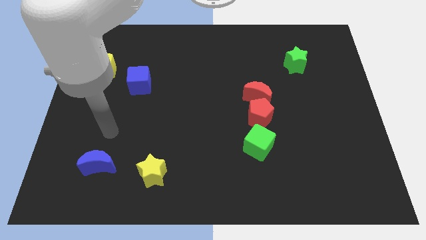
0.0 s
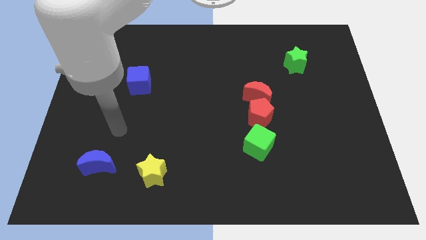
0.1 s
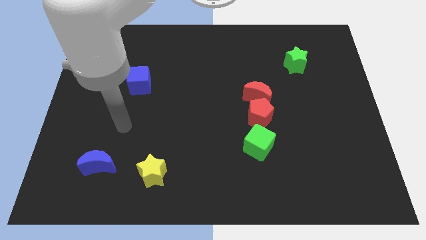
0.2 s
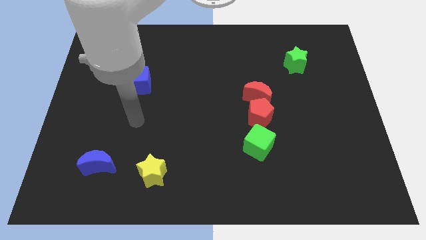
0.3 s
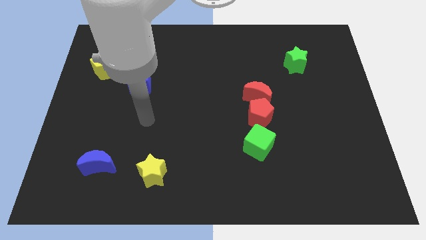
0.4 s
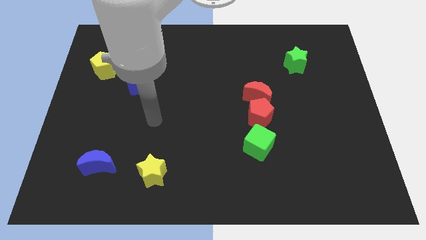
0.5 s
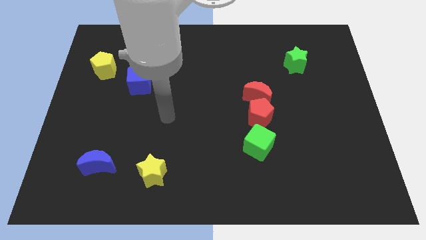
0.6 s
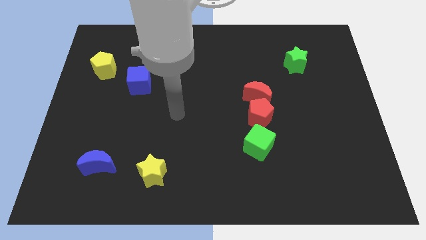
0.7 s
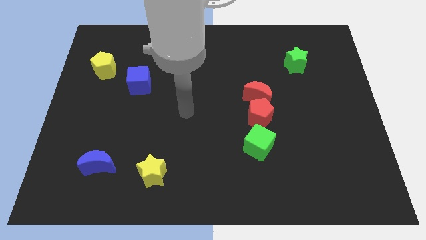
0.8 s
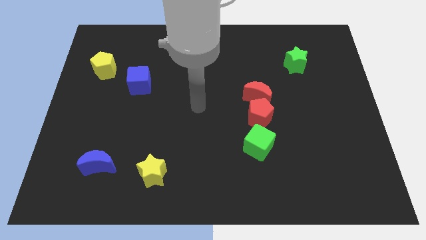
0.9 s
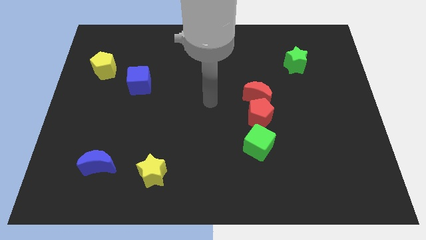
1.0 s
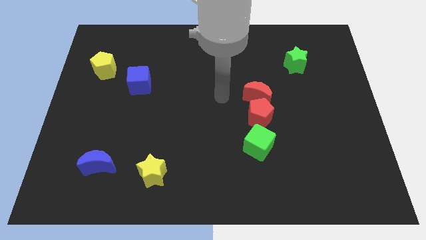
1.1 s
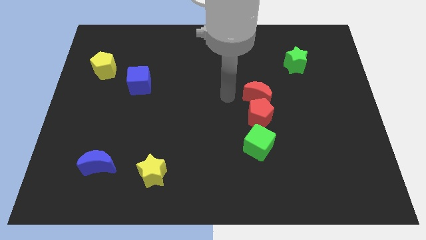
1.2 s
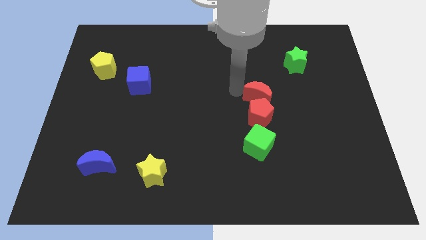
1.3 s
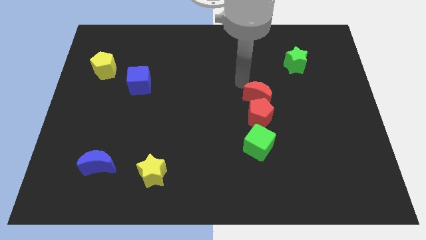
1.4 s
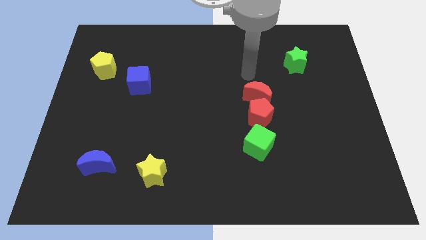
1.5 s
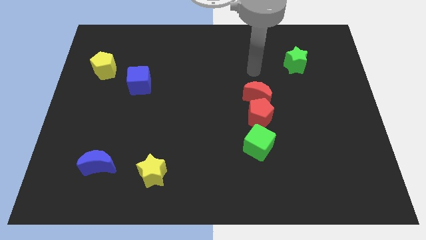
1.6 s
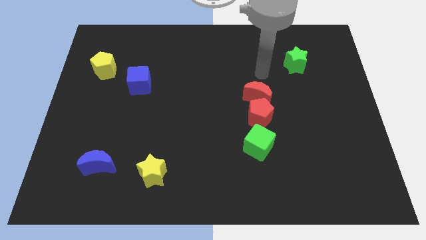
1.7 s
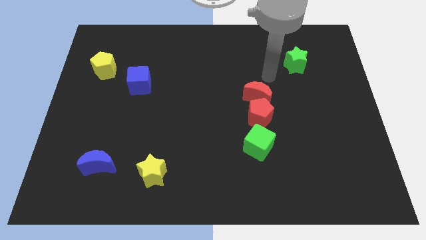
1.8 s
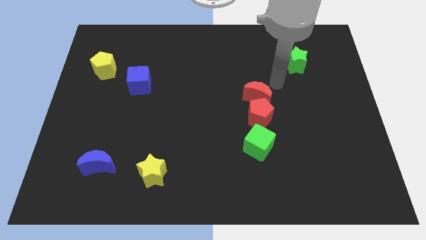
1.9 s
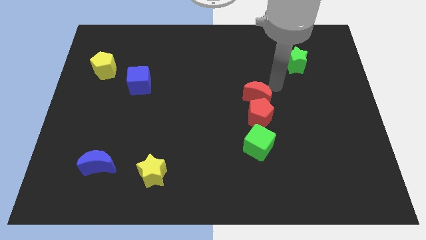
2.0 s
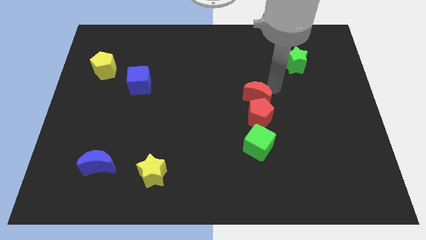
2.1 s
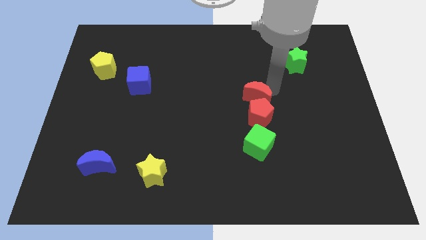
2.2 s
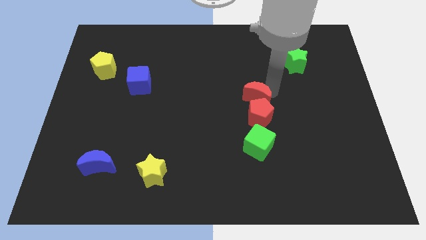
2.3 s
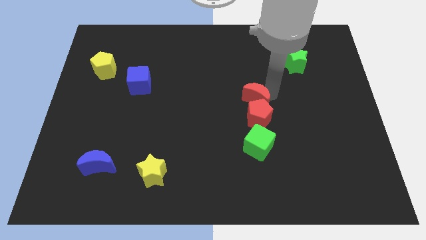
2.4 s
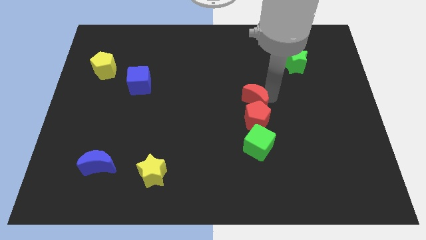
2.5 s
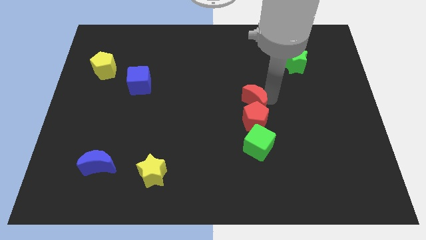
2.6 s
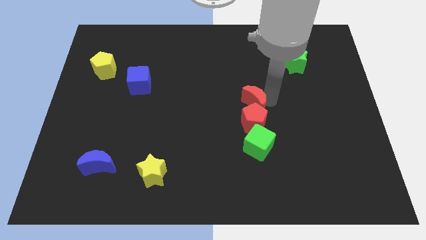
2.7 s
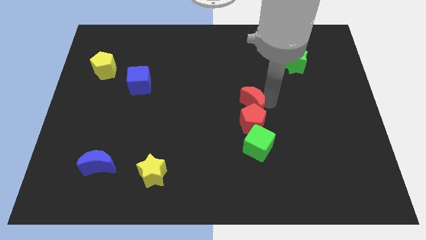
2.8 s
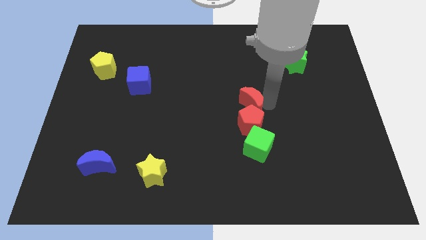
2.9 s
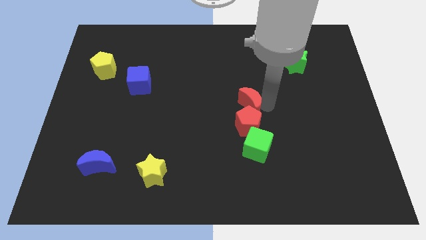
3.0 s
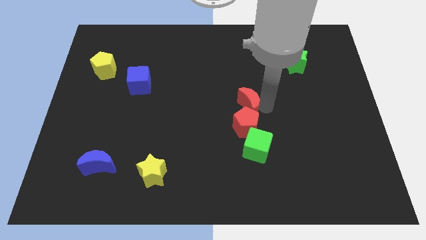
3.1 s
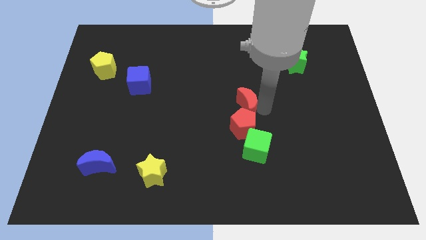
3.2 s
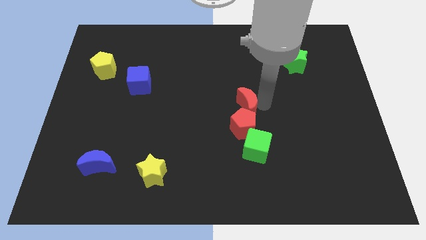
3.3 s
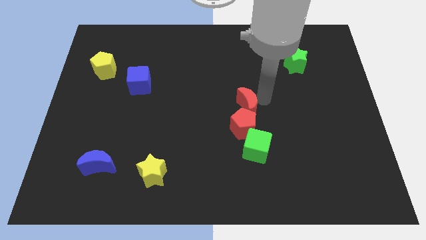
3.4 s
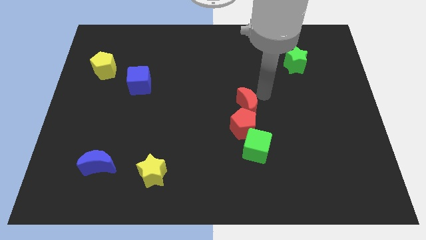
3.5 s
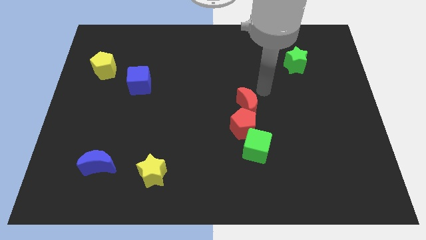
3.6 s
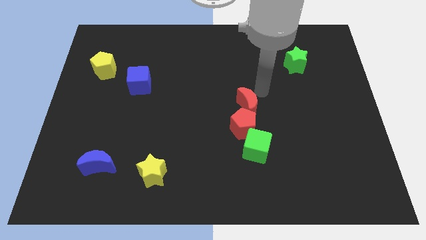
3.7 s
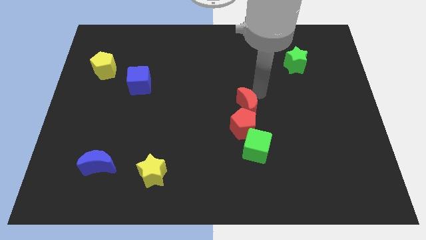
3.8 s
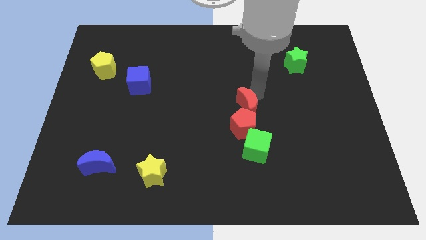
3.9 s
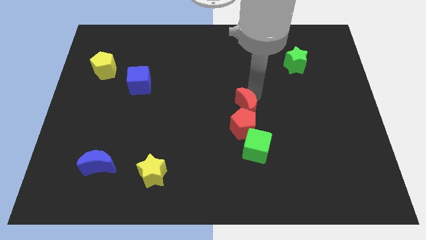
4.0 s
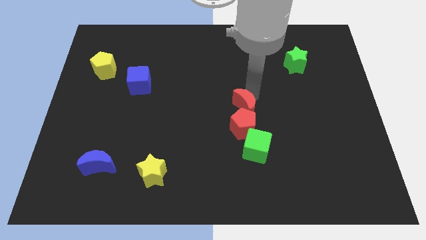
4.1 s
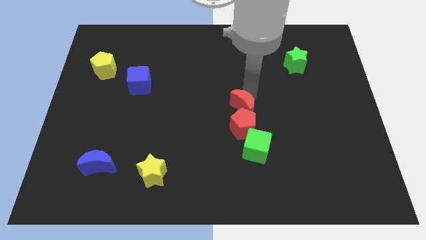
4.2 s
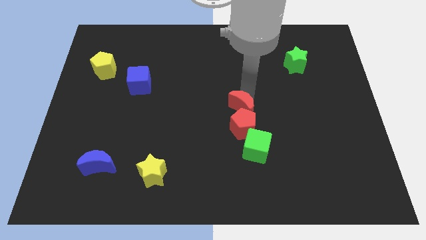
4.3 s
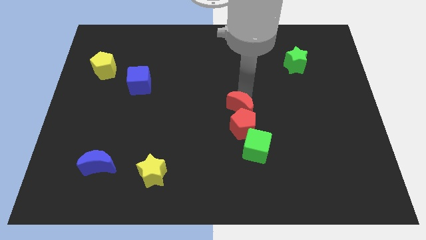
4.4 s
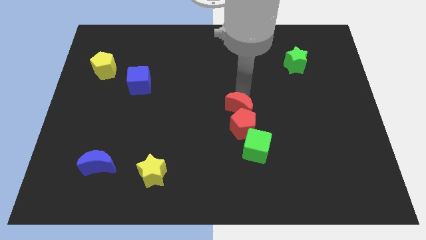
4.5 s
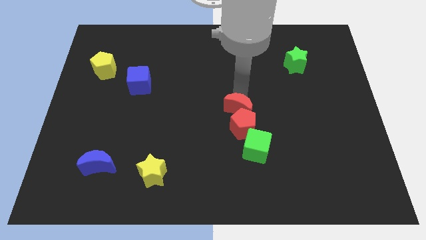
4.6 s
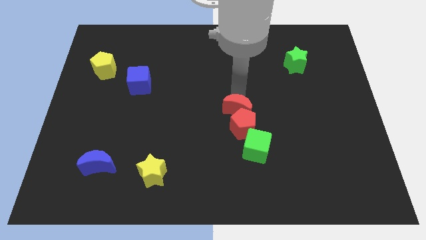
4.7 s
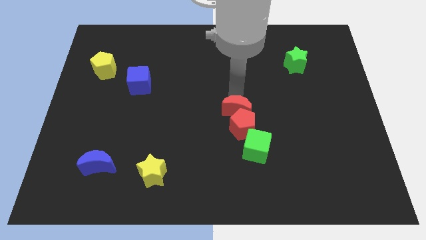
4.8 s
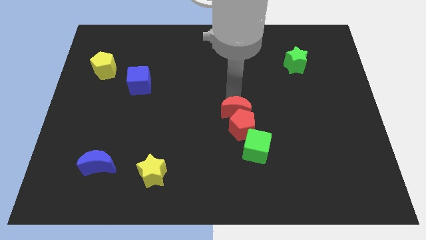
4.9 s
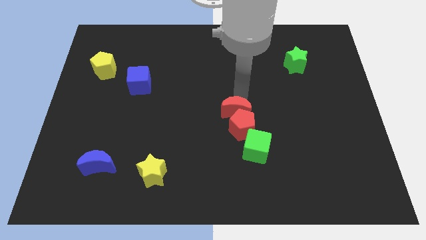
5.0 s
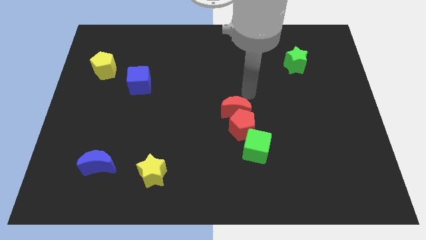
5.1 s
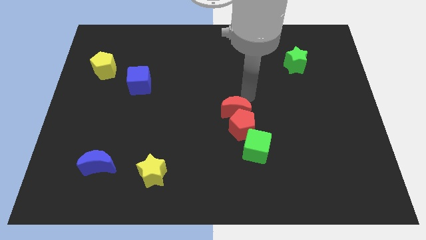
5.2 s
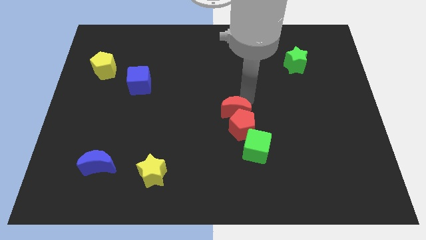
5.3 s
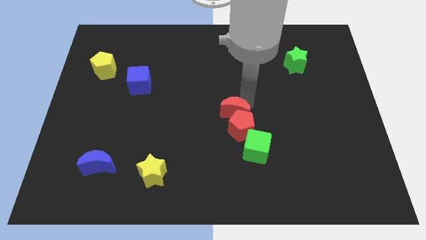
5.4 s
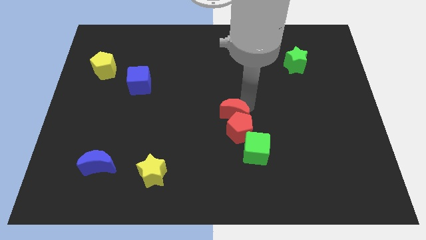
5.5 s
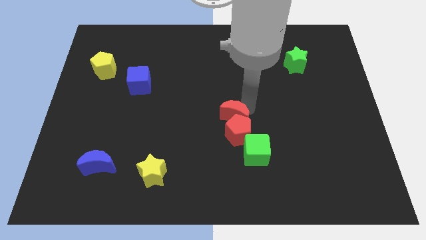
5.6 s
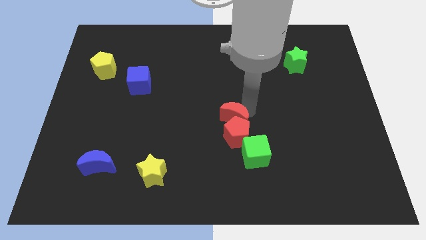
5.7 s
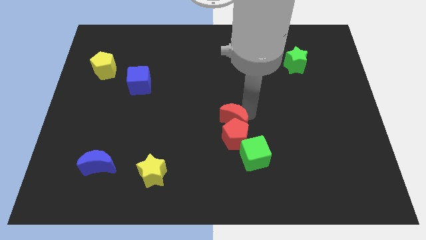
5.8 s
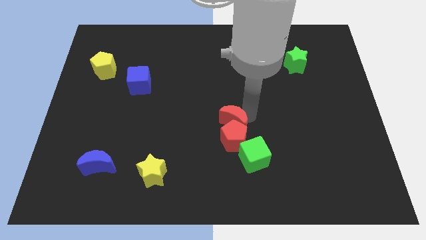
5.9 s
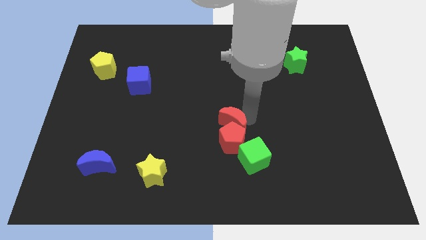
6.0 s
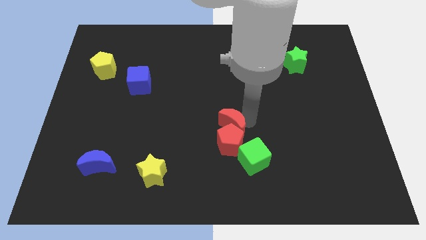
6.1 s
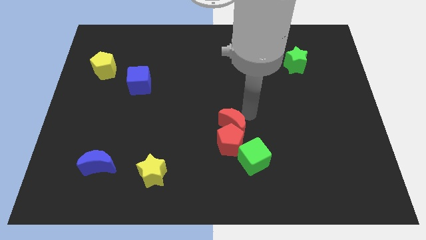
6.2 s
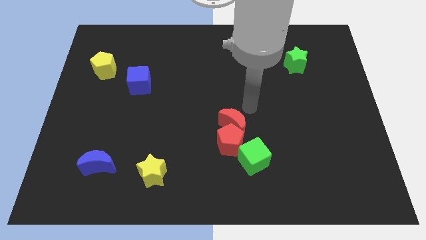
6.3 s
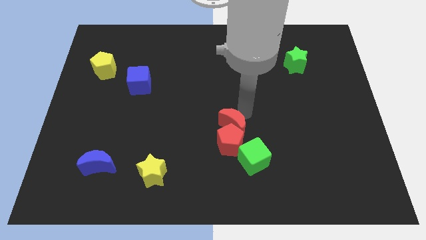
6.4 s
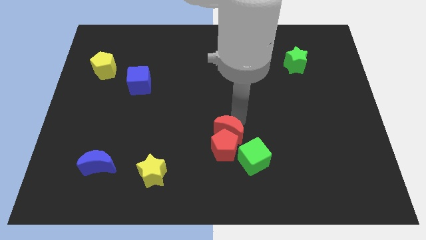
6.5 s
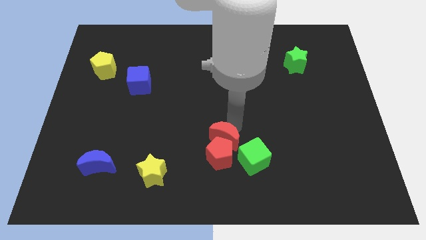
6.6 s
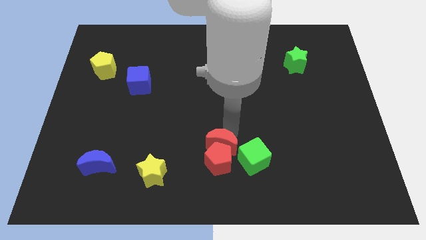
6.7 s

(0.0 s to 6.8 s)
move the red moon just left of the green cube

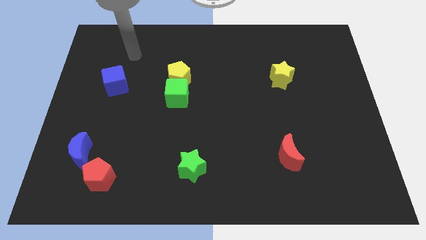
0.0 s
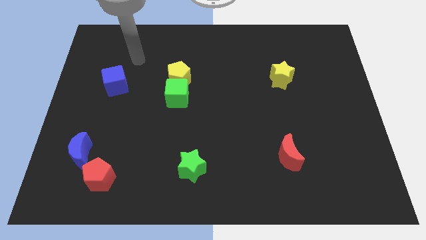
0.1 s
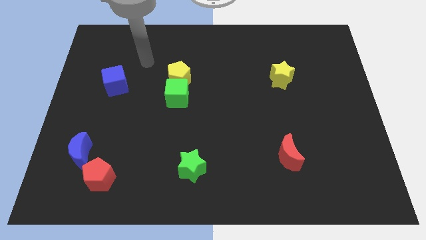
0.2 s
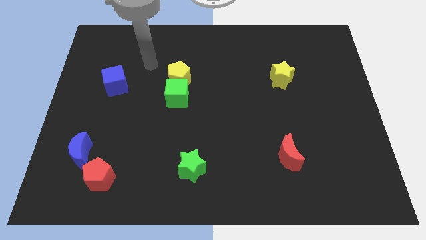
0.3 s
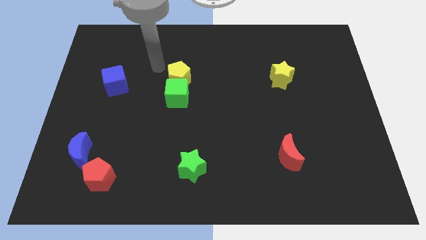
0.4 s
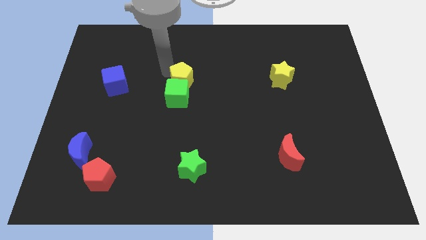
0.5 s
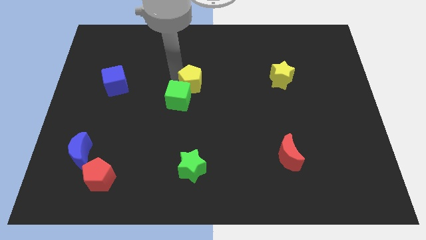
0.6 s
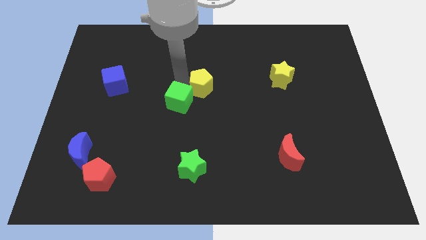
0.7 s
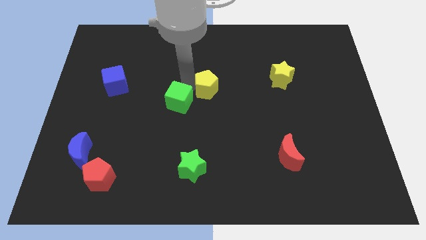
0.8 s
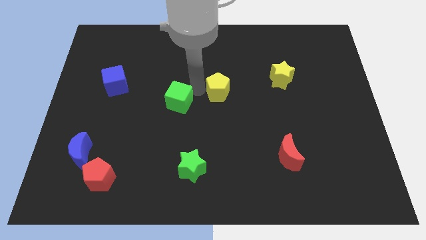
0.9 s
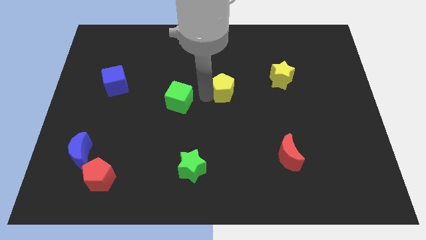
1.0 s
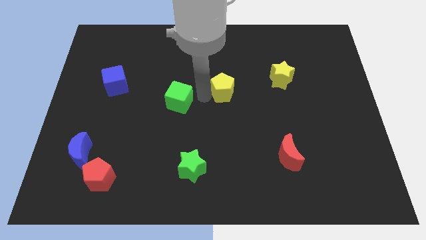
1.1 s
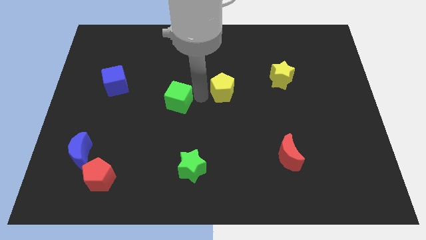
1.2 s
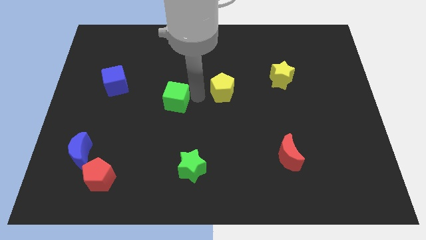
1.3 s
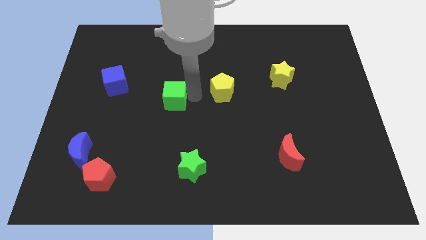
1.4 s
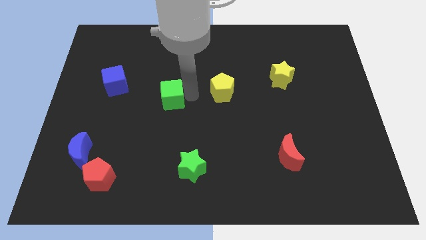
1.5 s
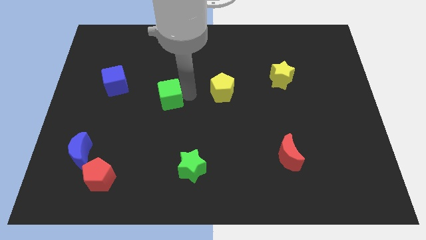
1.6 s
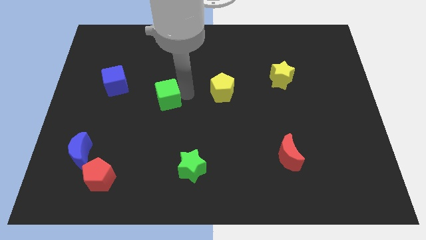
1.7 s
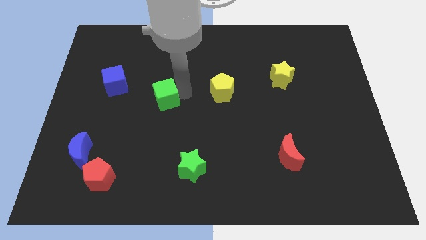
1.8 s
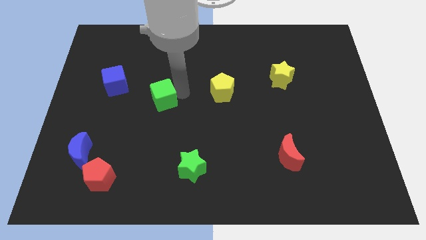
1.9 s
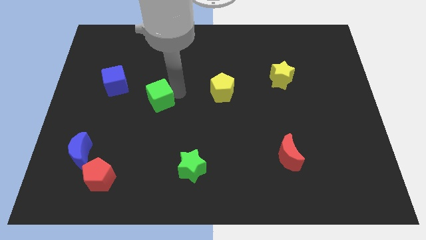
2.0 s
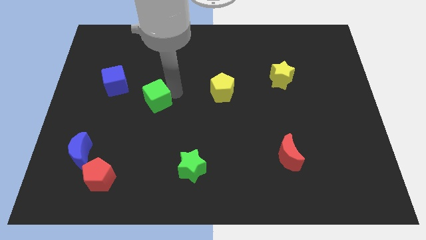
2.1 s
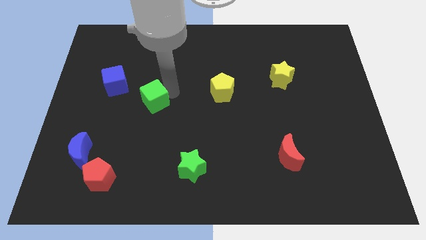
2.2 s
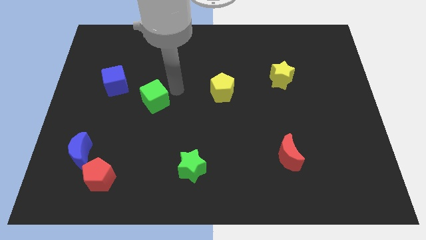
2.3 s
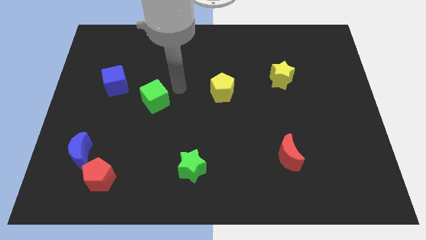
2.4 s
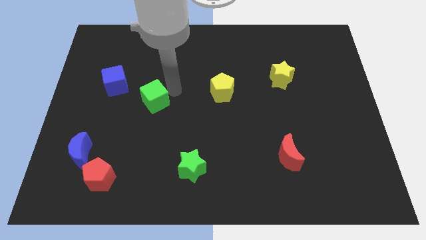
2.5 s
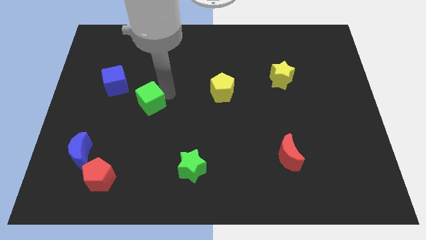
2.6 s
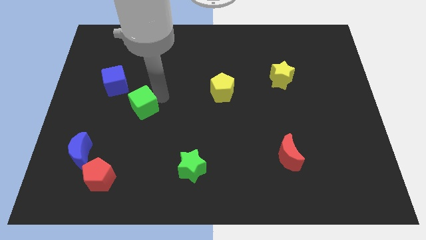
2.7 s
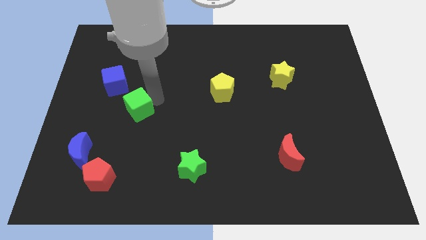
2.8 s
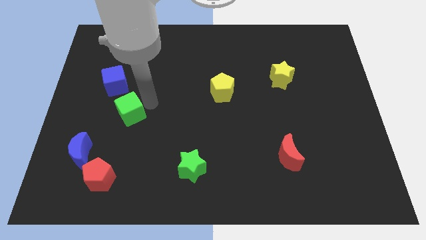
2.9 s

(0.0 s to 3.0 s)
move the green cube to the bottom side of the blue cube
